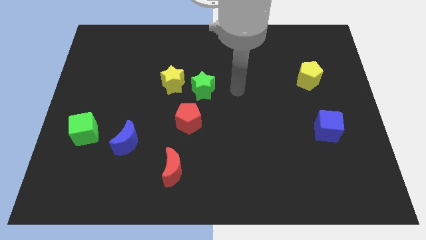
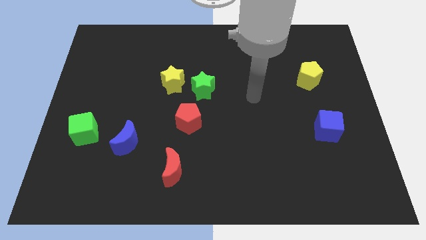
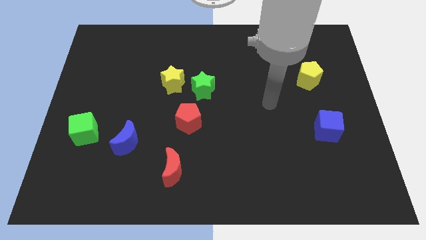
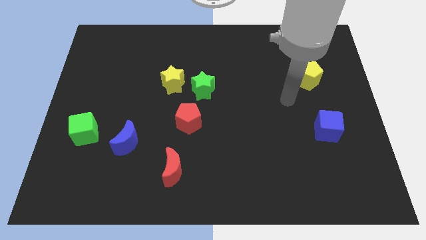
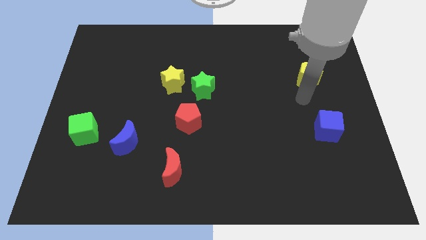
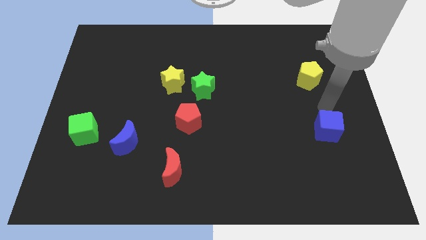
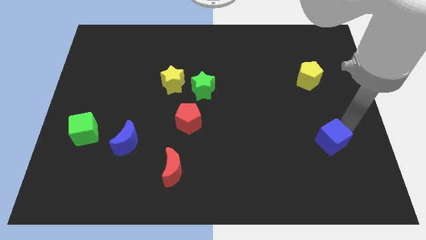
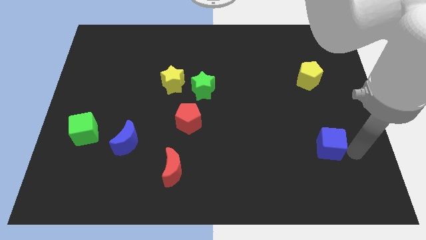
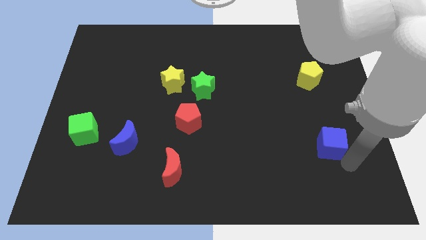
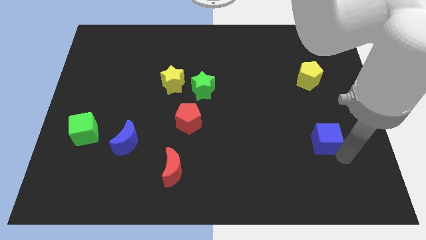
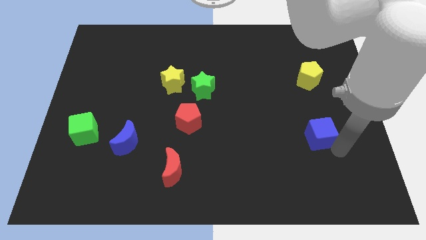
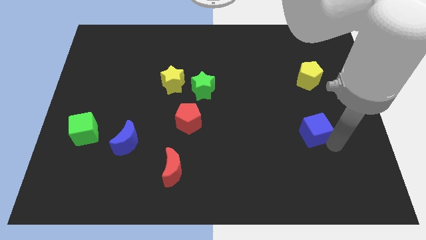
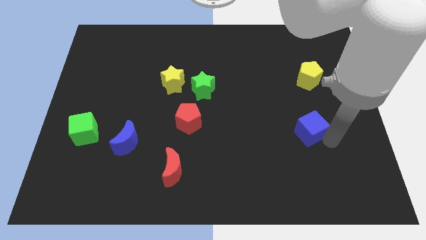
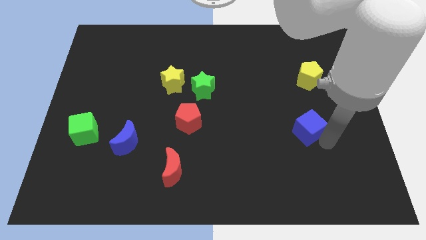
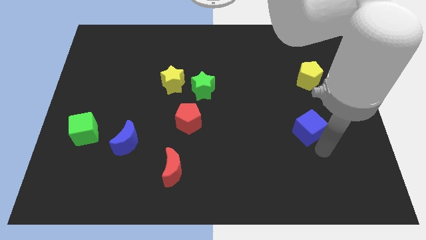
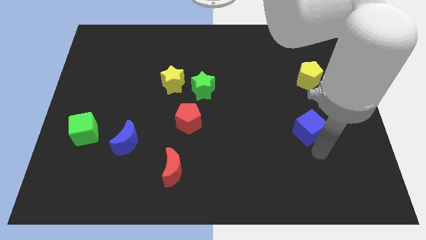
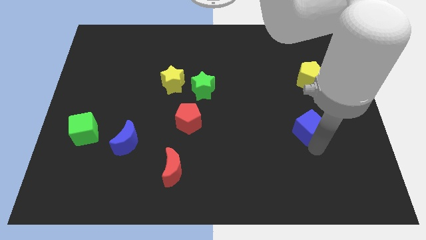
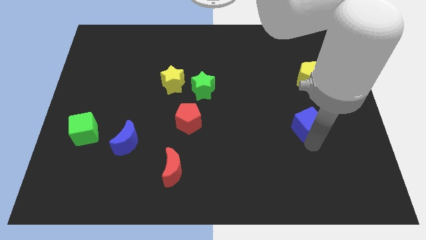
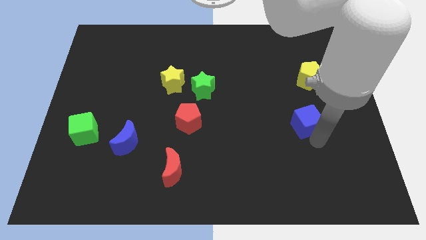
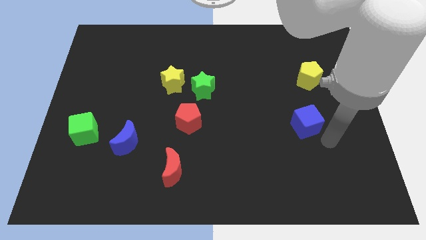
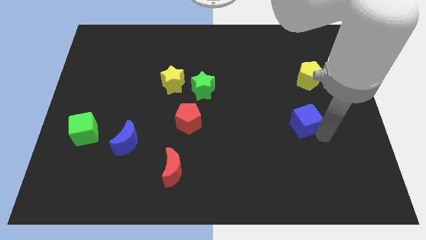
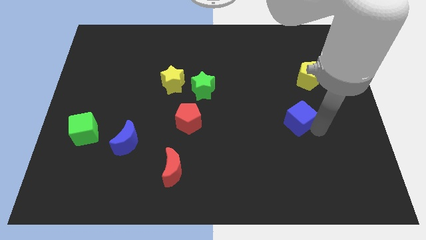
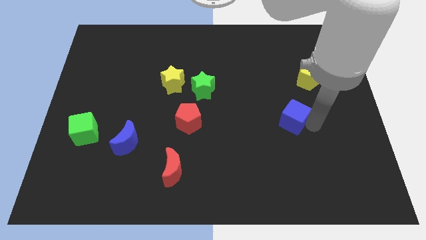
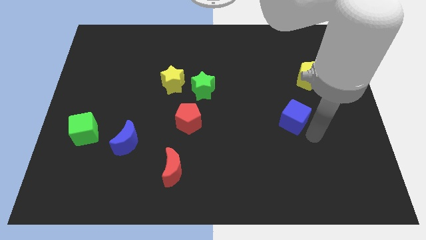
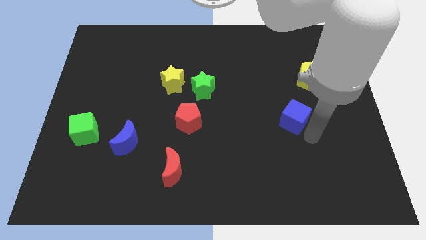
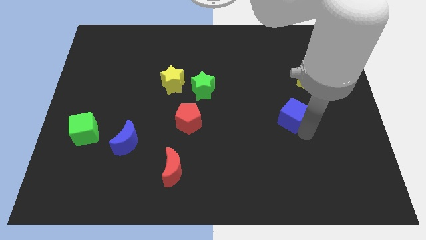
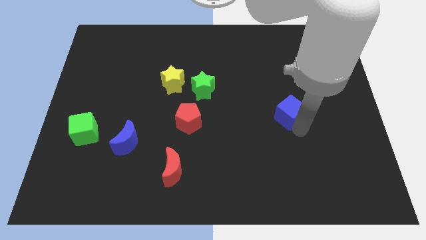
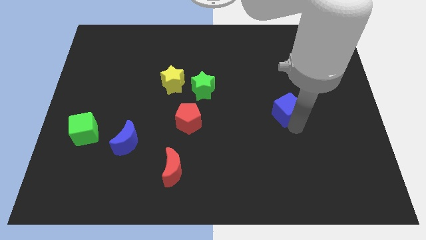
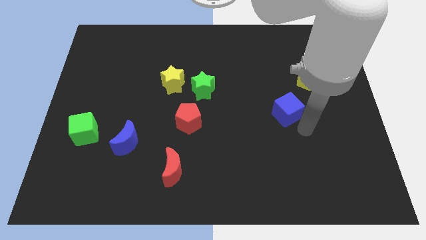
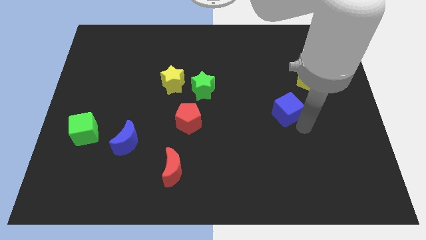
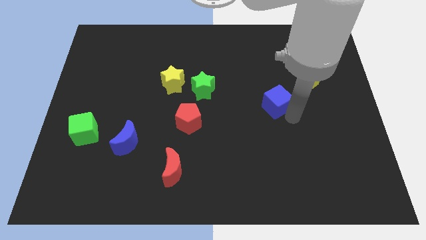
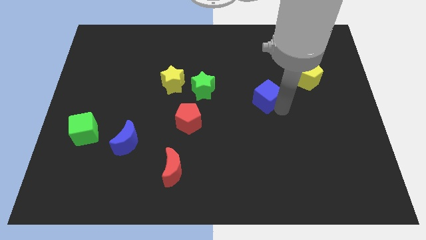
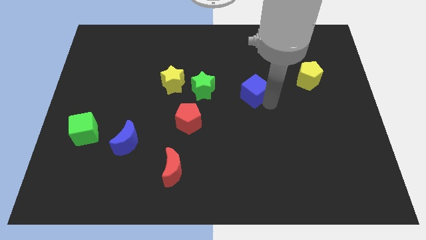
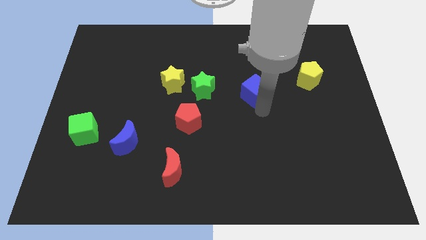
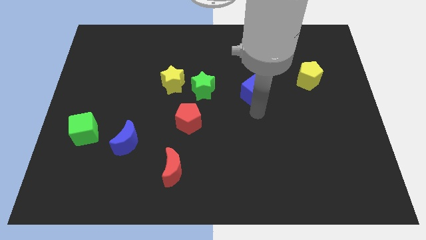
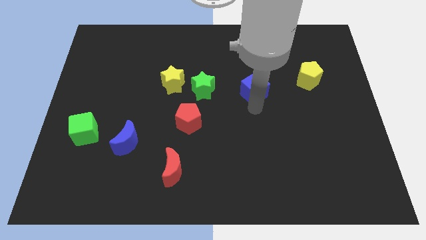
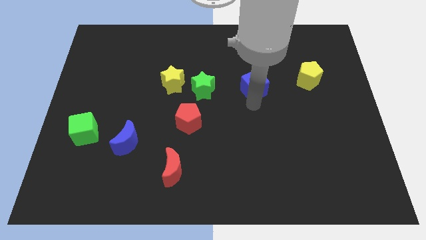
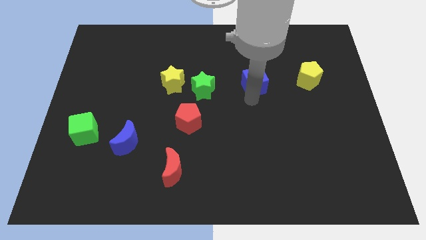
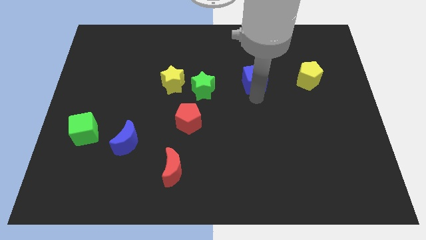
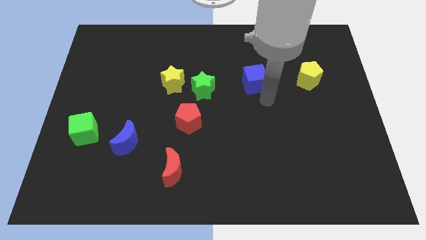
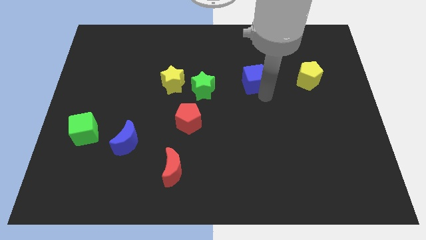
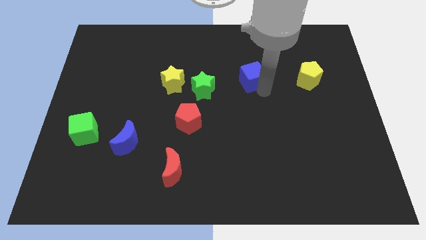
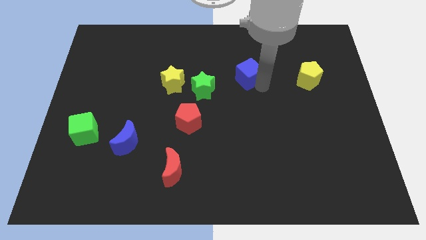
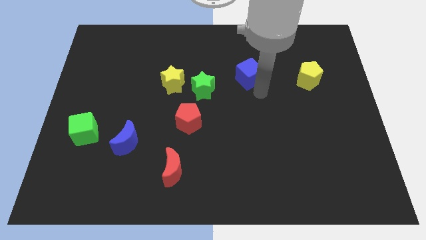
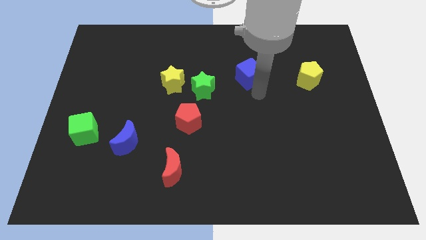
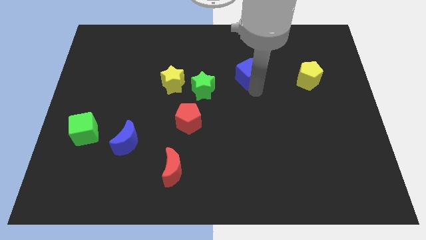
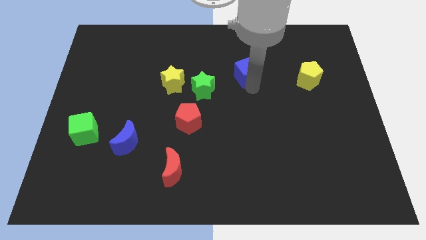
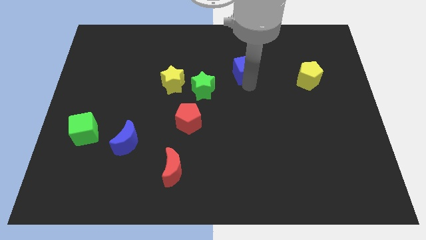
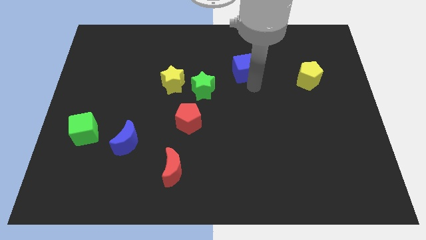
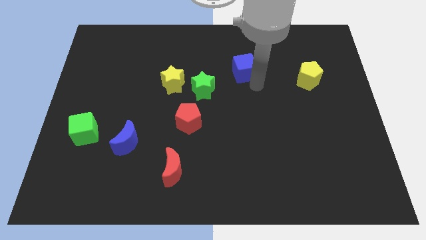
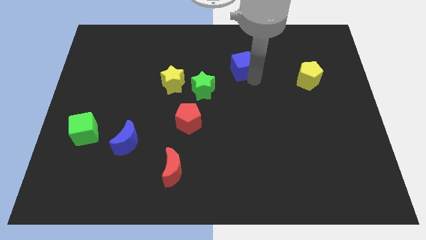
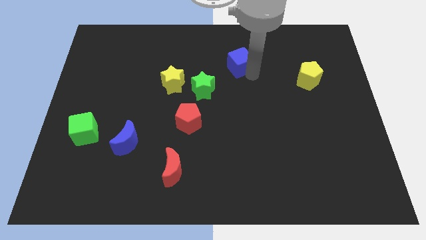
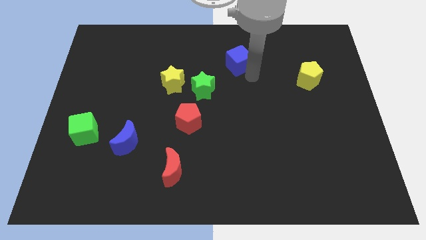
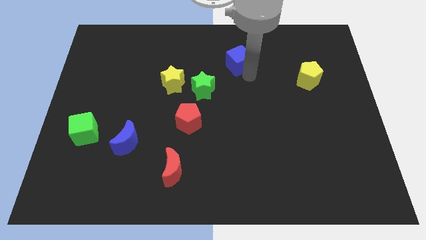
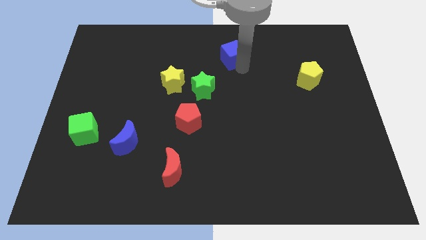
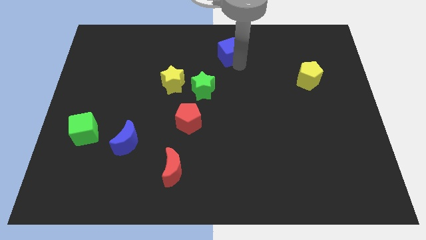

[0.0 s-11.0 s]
move the blue cube to the top

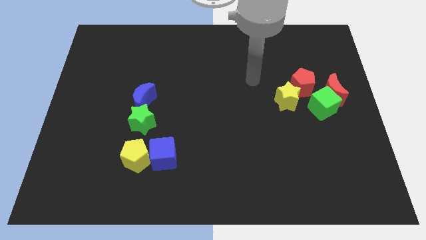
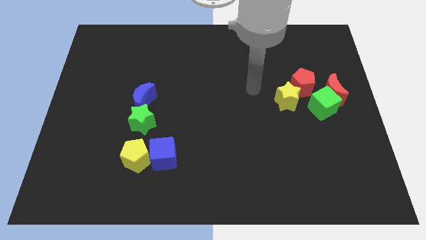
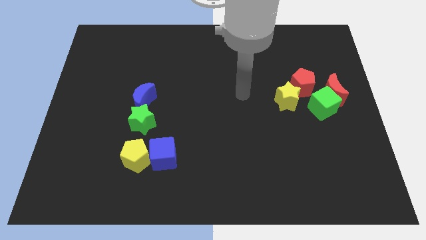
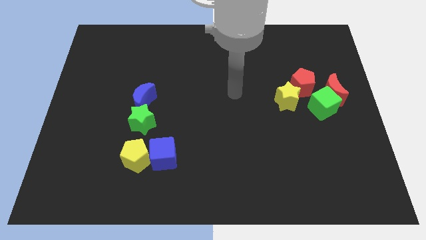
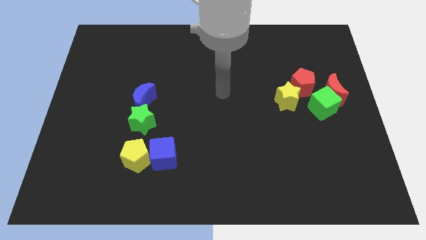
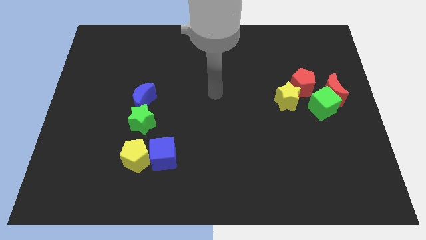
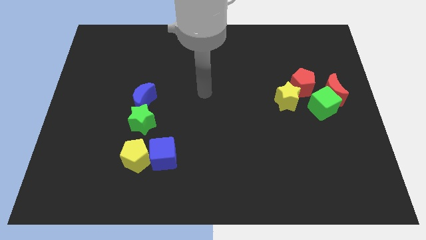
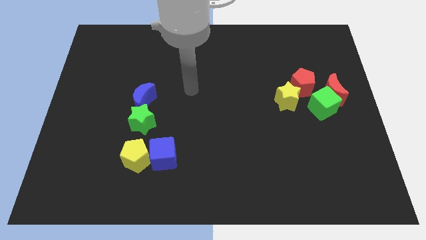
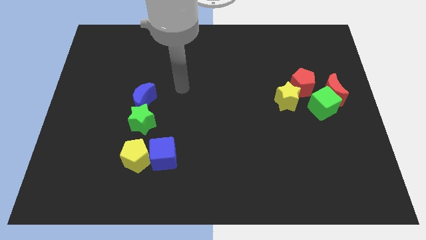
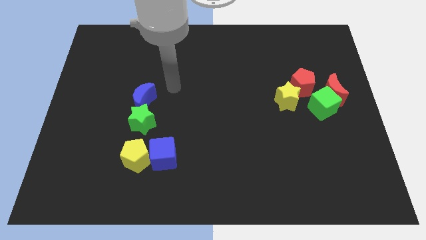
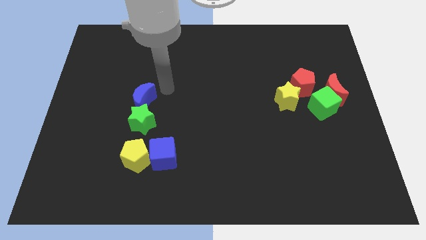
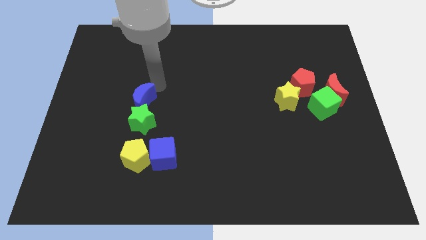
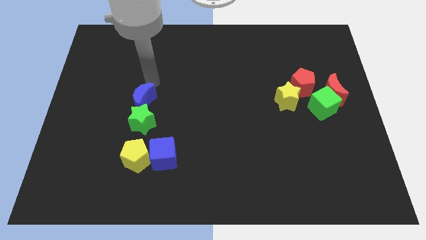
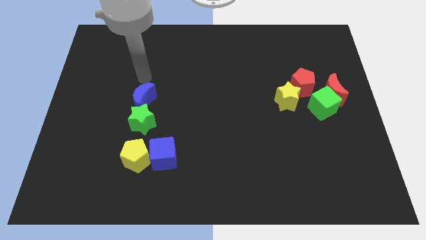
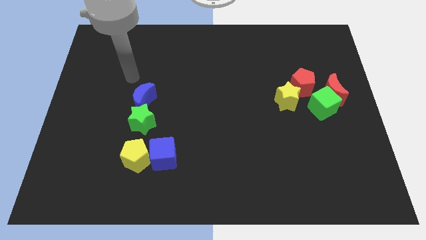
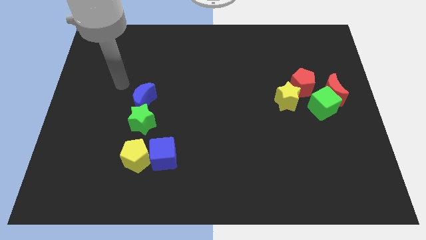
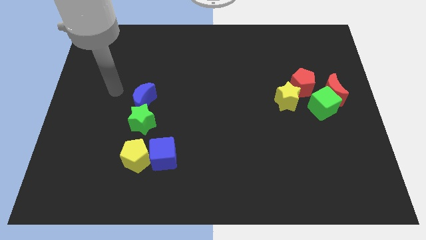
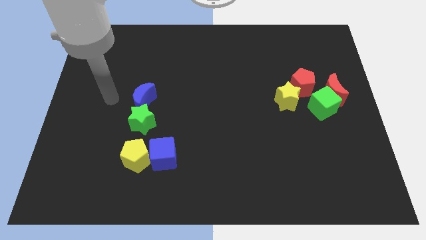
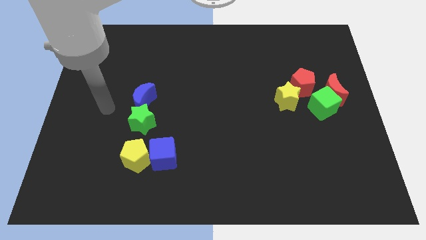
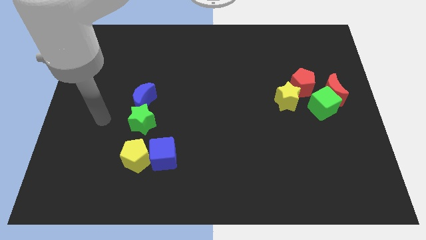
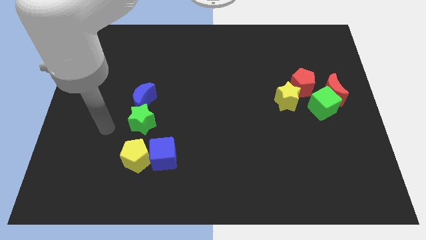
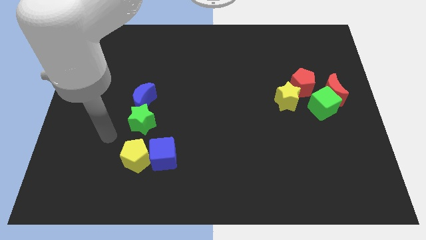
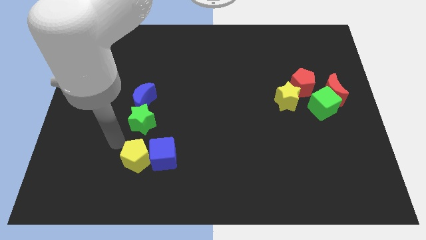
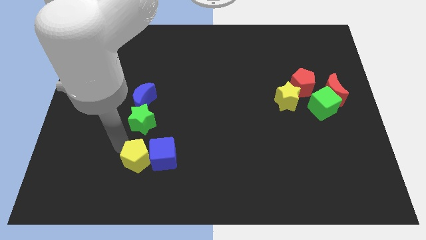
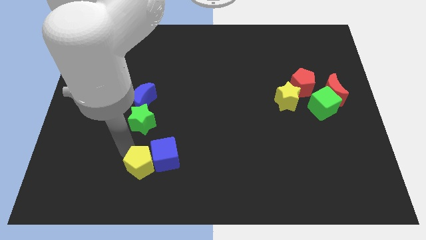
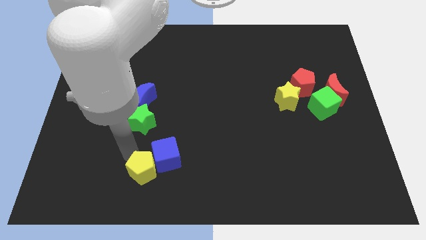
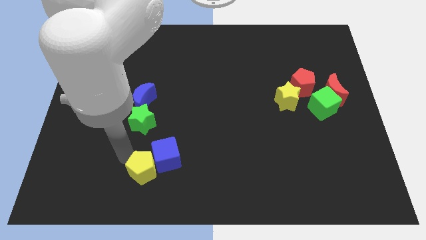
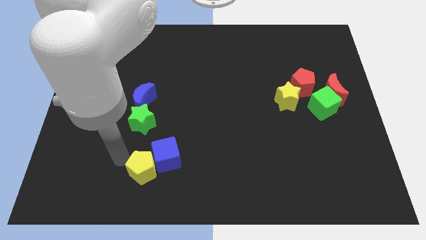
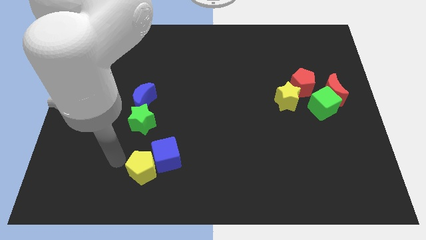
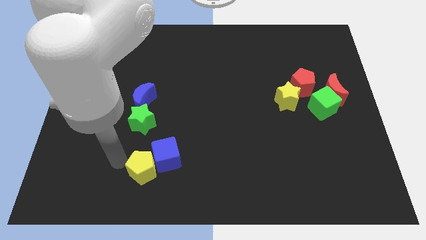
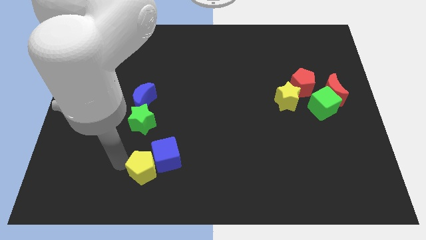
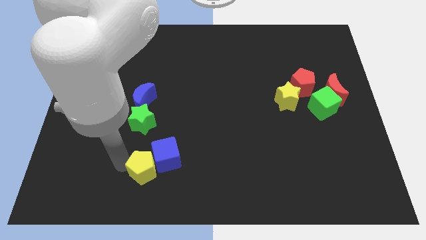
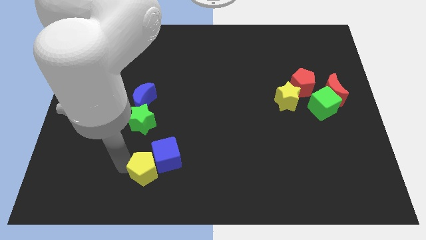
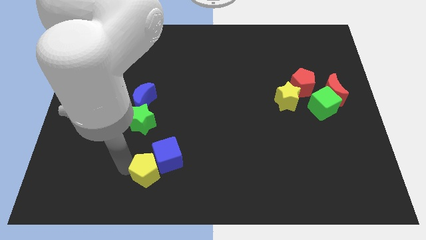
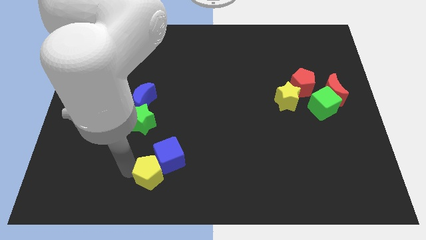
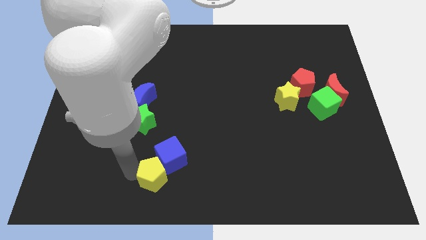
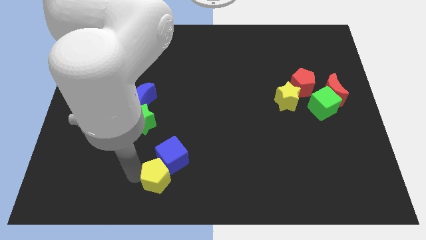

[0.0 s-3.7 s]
push the yellow pentagon to the bottom side
